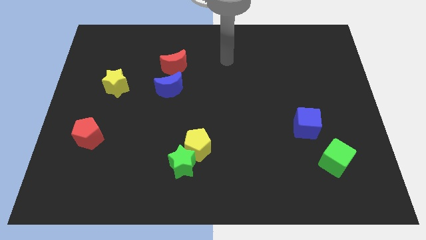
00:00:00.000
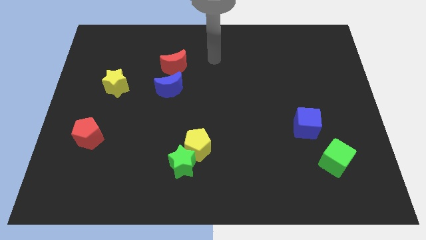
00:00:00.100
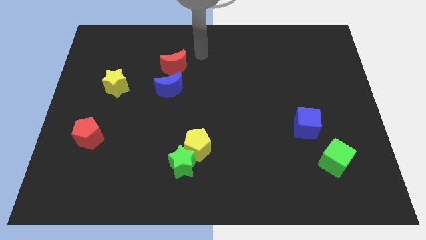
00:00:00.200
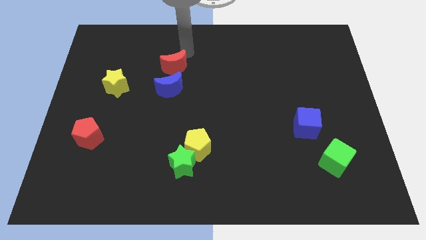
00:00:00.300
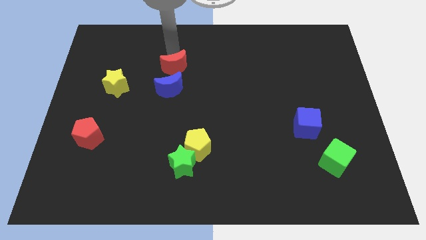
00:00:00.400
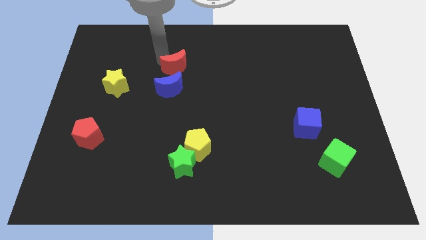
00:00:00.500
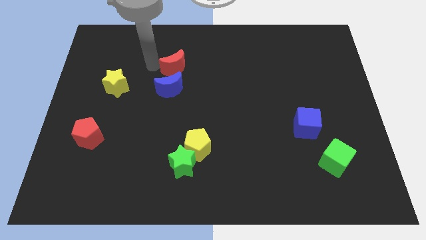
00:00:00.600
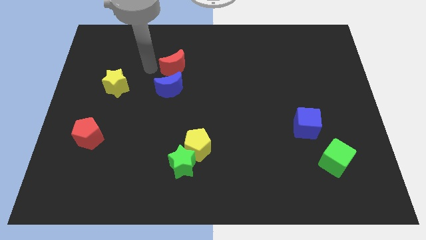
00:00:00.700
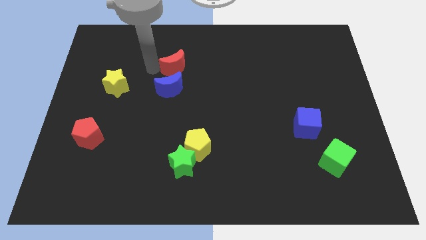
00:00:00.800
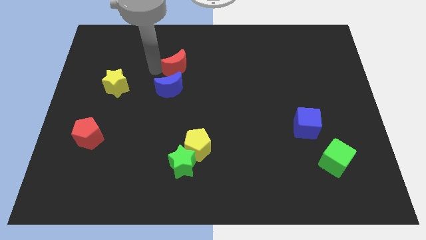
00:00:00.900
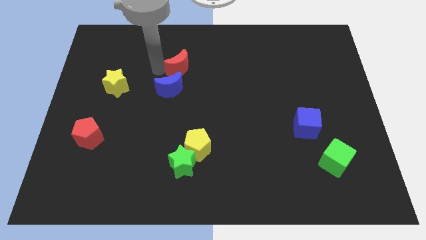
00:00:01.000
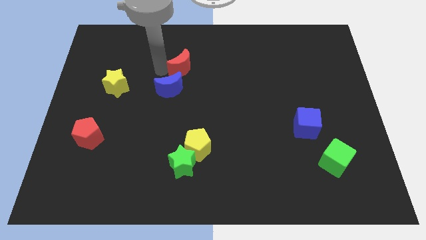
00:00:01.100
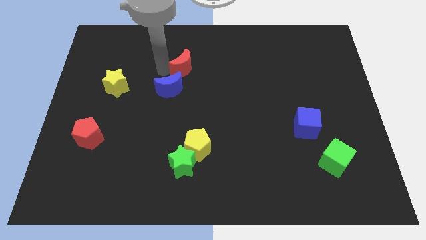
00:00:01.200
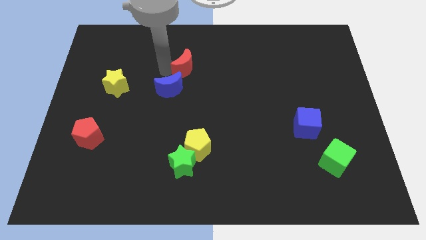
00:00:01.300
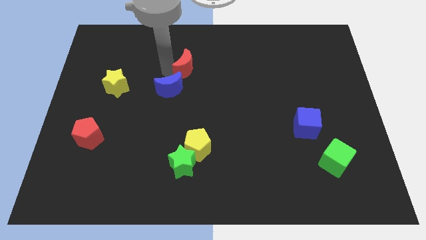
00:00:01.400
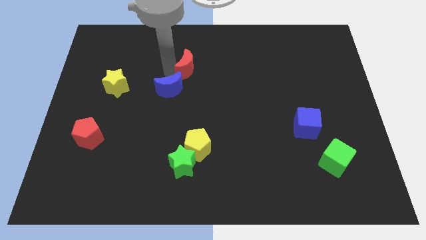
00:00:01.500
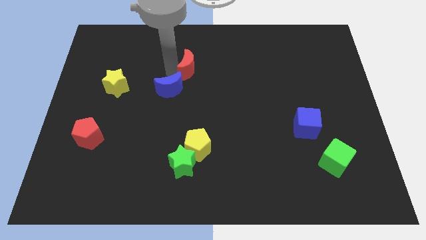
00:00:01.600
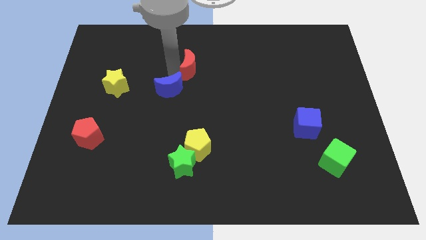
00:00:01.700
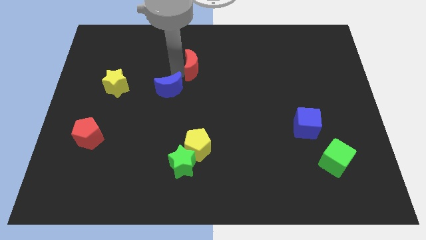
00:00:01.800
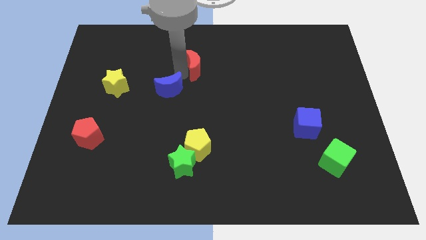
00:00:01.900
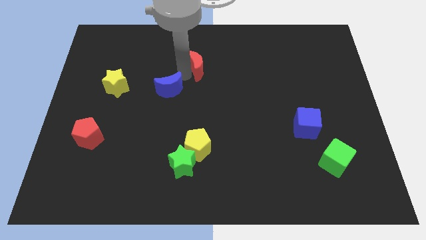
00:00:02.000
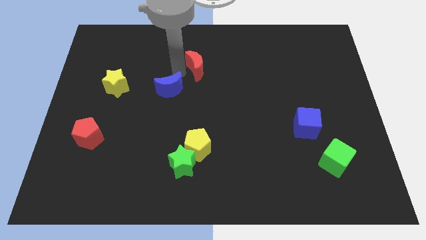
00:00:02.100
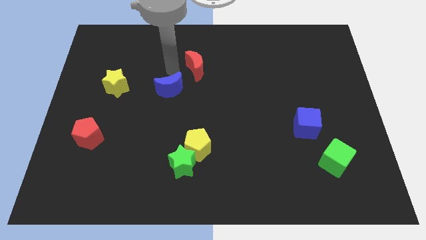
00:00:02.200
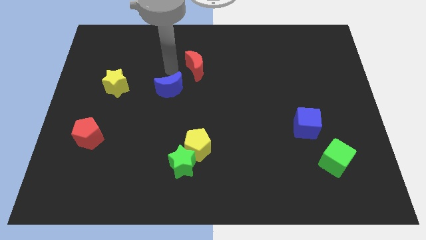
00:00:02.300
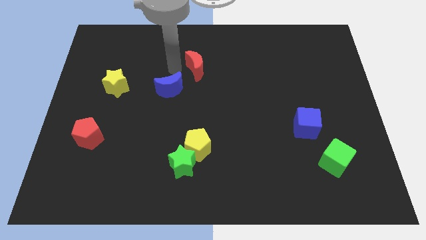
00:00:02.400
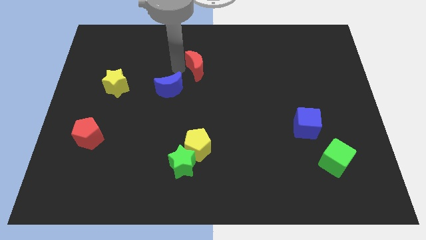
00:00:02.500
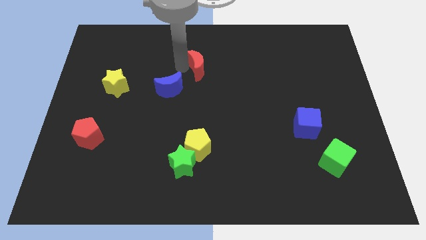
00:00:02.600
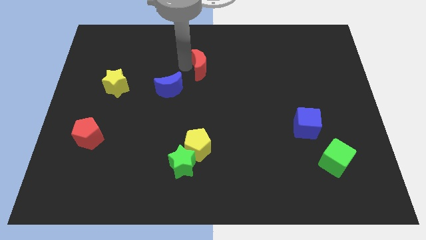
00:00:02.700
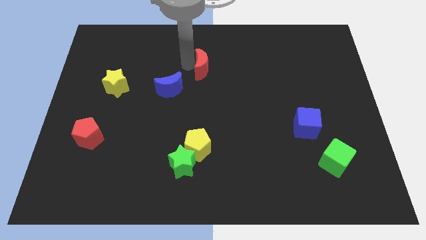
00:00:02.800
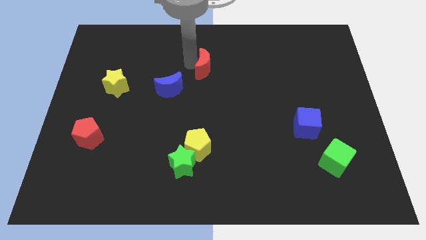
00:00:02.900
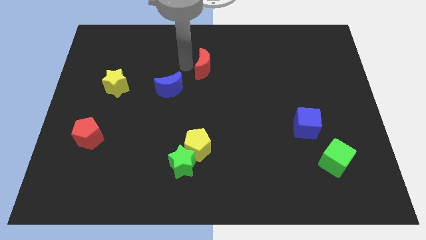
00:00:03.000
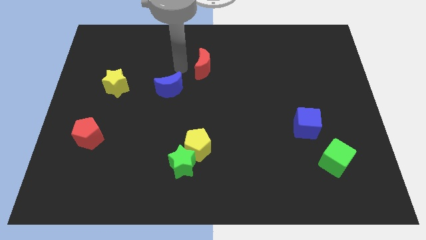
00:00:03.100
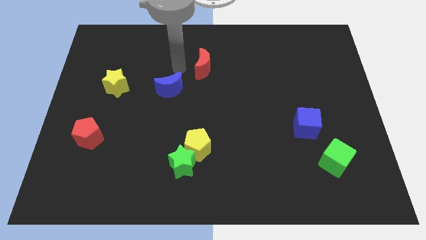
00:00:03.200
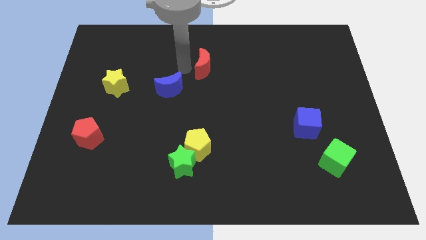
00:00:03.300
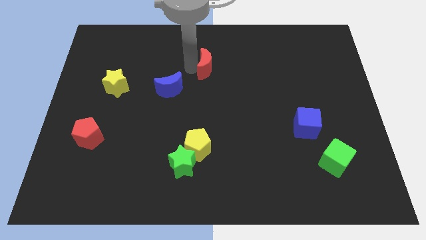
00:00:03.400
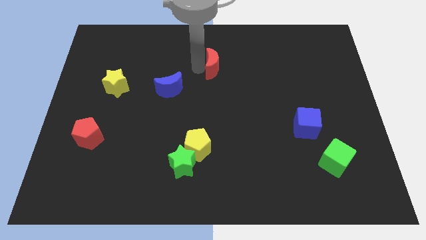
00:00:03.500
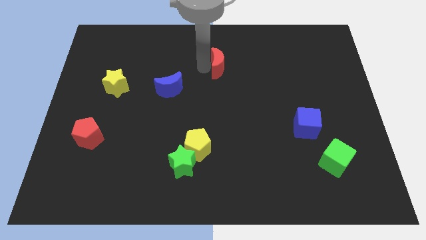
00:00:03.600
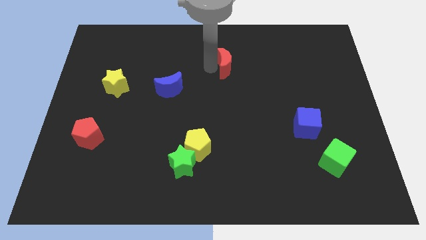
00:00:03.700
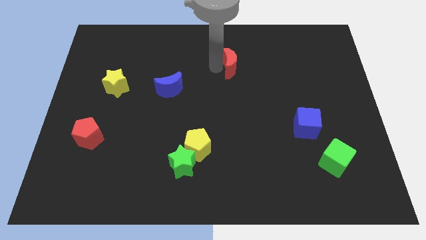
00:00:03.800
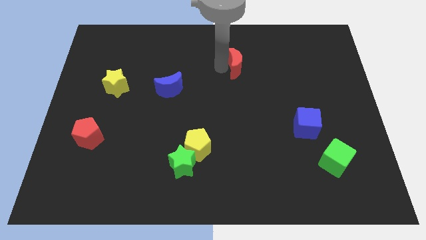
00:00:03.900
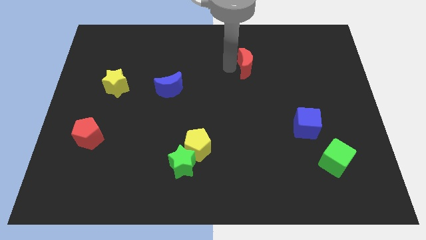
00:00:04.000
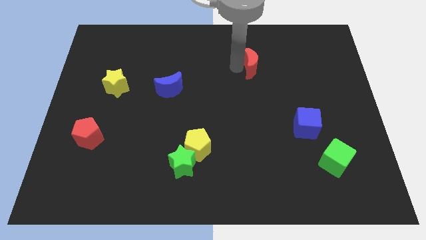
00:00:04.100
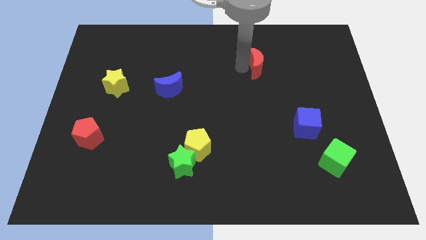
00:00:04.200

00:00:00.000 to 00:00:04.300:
push the red moon right

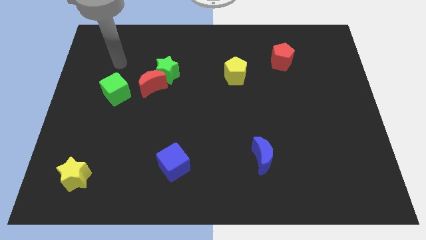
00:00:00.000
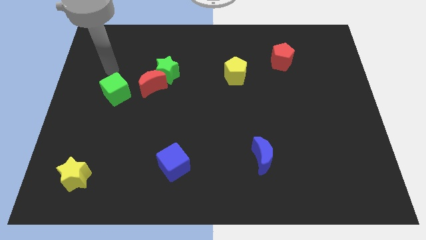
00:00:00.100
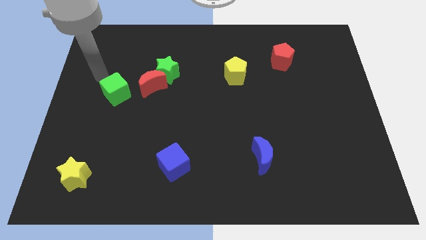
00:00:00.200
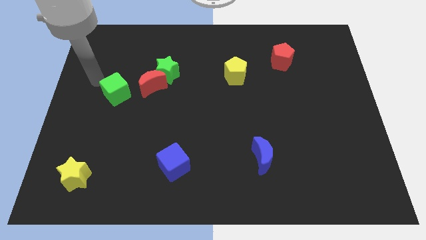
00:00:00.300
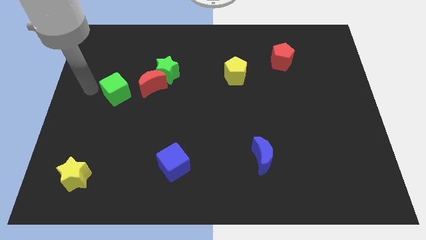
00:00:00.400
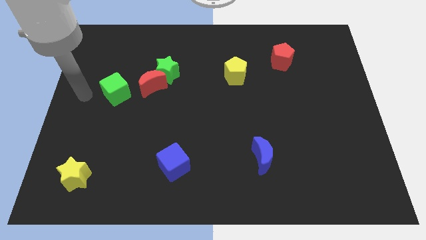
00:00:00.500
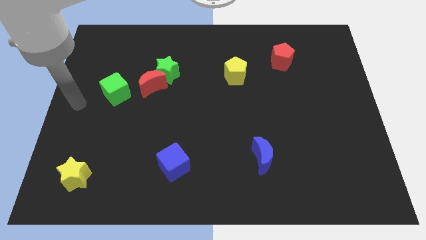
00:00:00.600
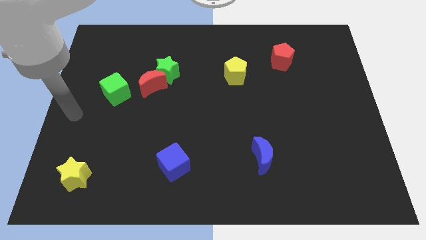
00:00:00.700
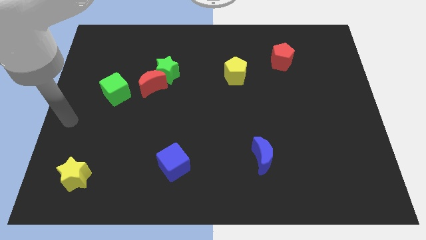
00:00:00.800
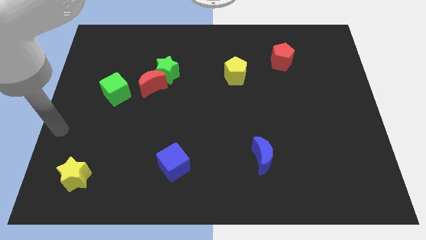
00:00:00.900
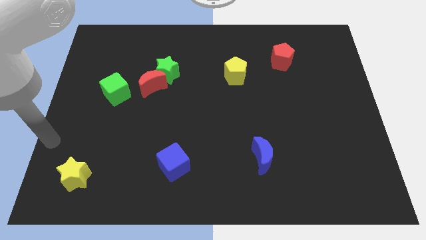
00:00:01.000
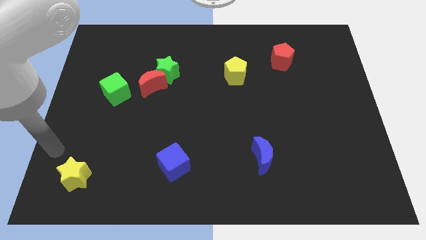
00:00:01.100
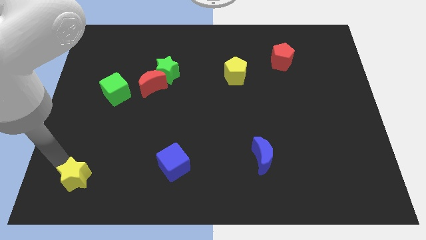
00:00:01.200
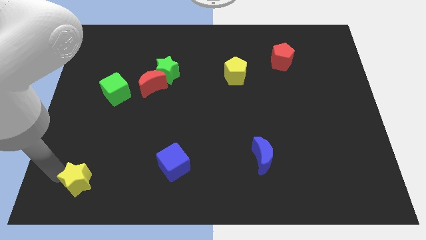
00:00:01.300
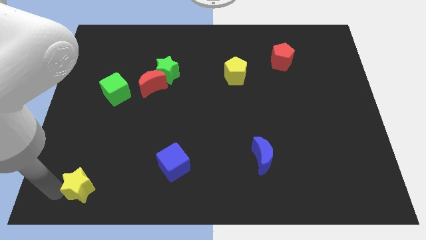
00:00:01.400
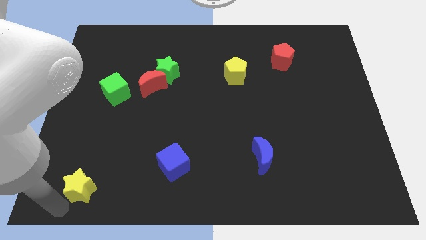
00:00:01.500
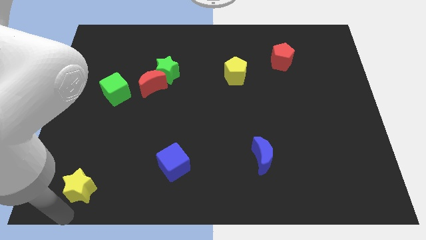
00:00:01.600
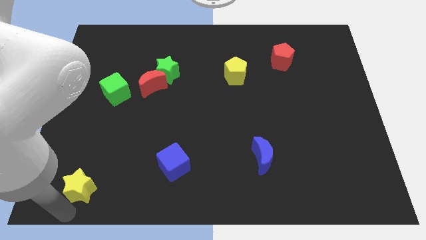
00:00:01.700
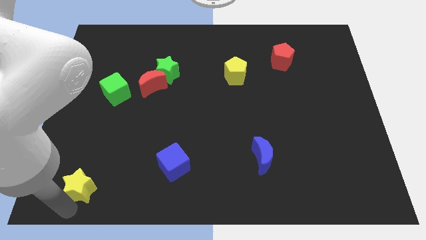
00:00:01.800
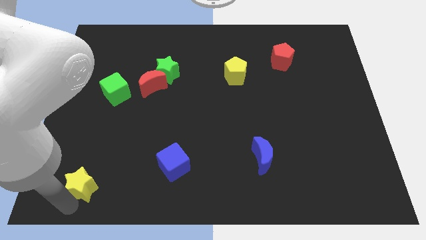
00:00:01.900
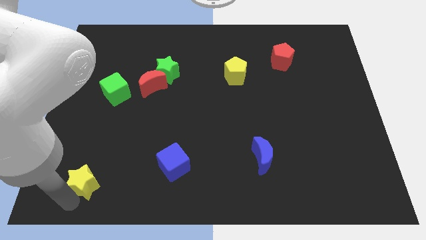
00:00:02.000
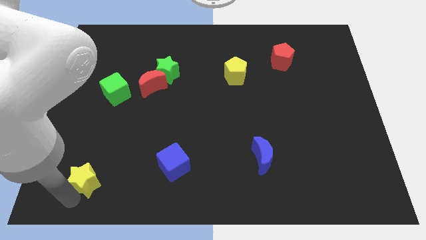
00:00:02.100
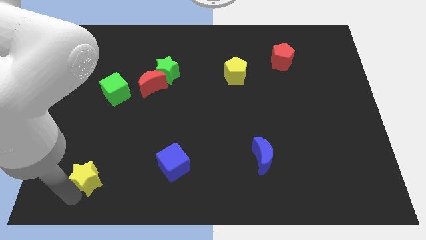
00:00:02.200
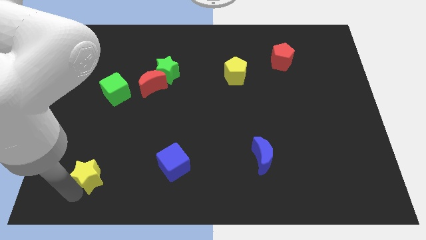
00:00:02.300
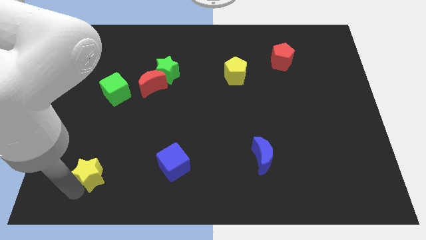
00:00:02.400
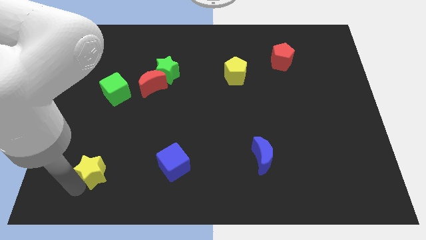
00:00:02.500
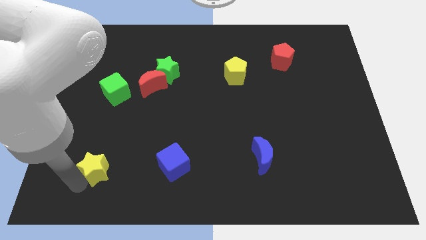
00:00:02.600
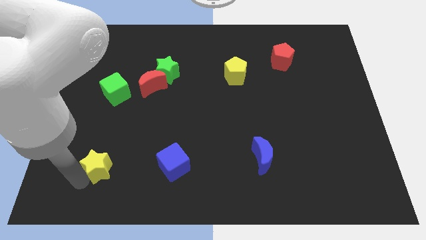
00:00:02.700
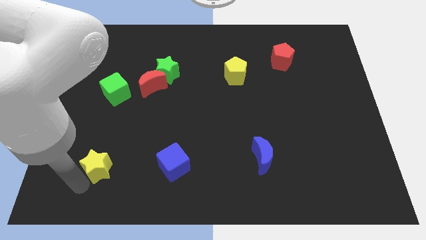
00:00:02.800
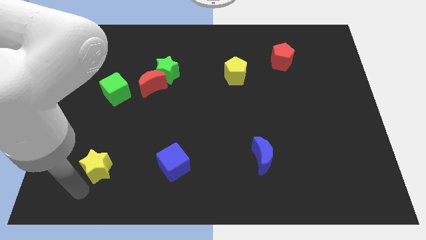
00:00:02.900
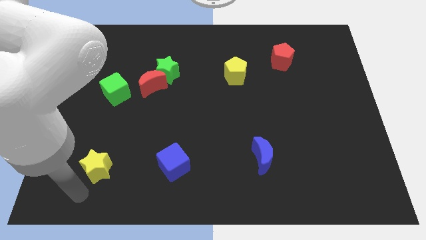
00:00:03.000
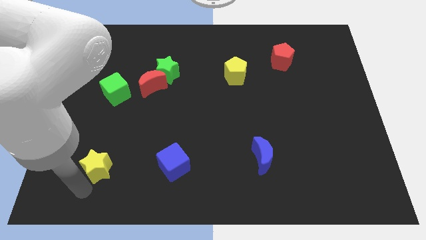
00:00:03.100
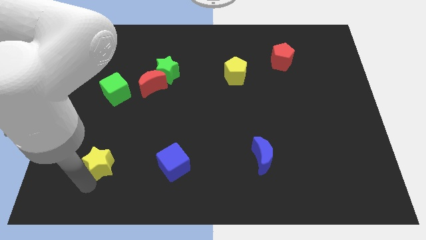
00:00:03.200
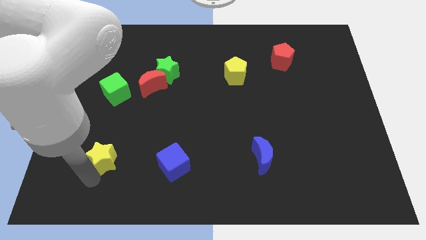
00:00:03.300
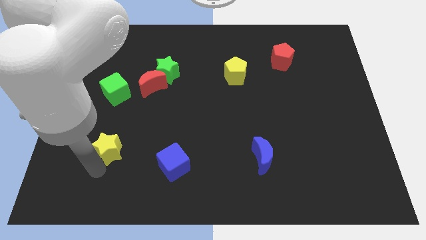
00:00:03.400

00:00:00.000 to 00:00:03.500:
push the yellow star slightly up and right
